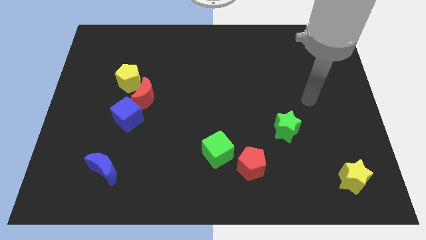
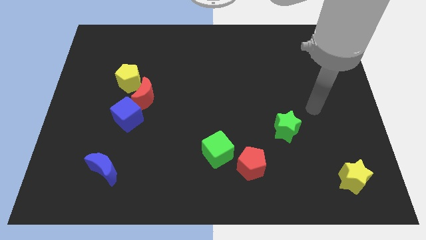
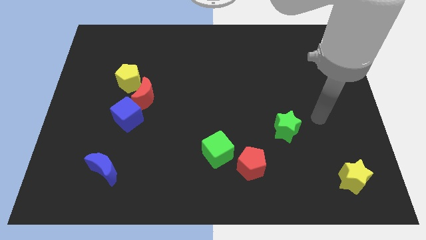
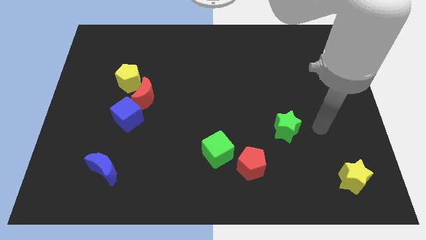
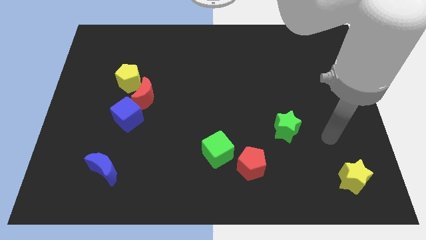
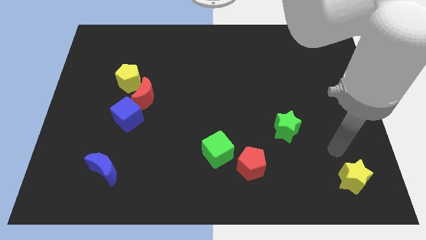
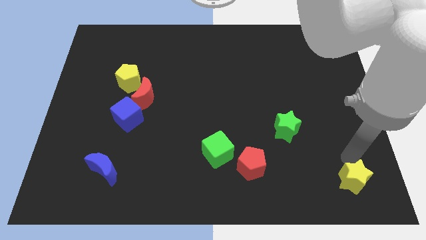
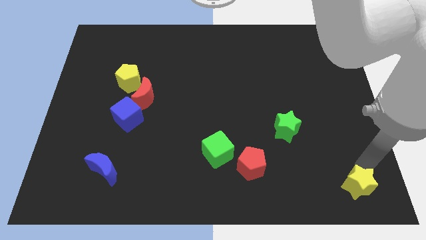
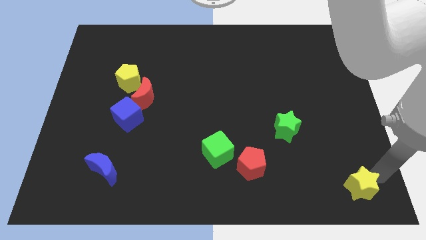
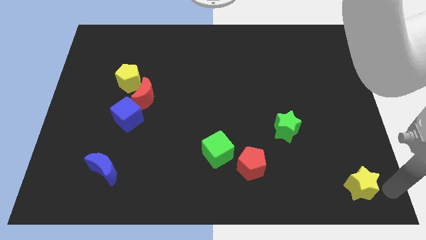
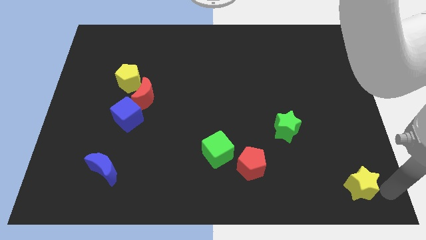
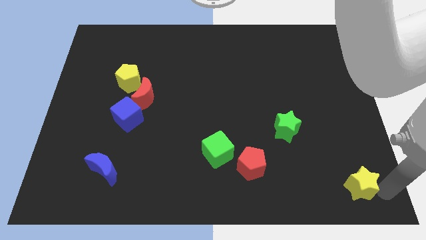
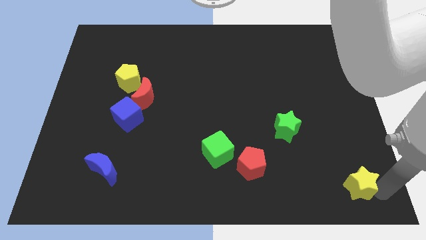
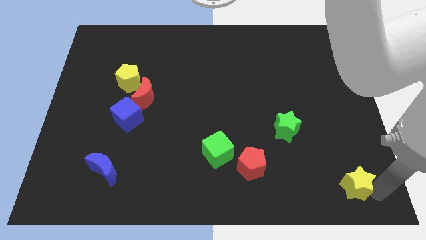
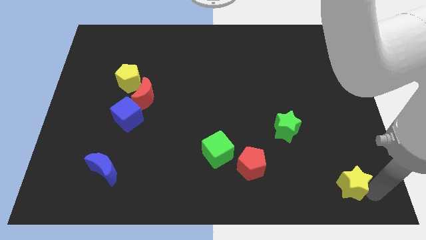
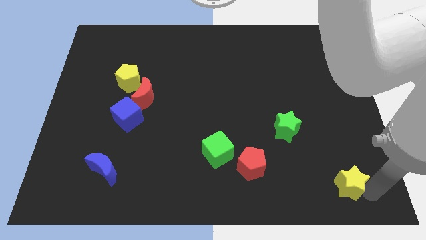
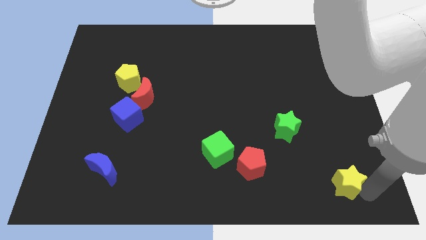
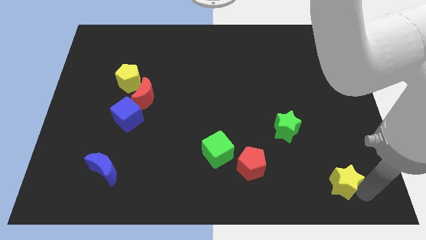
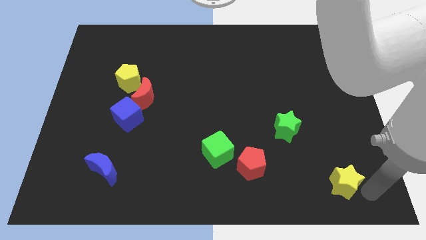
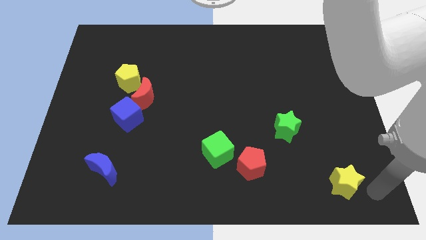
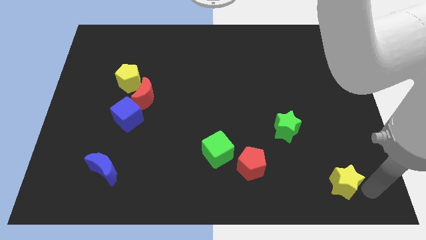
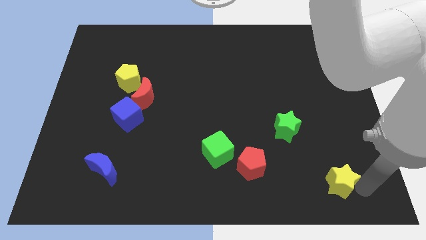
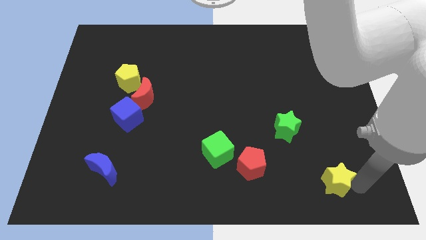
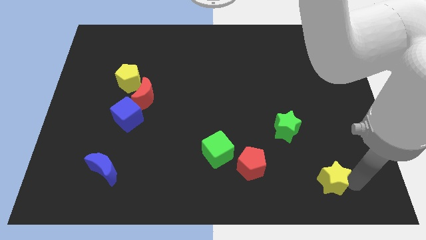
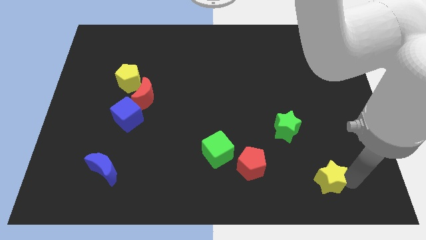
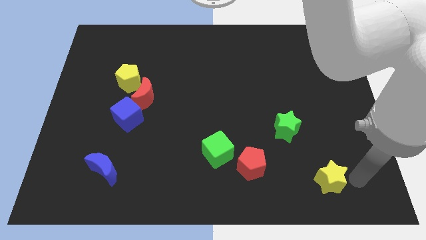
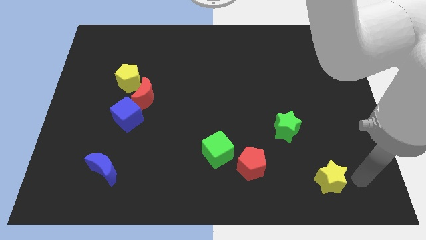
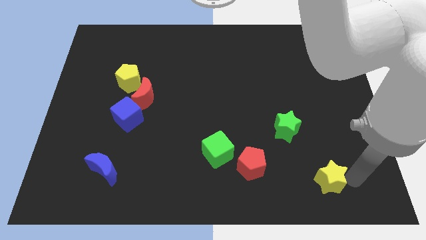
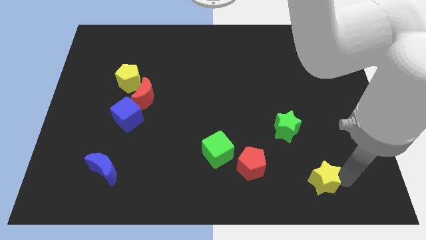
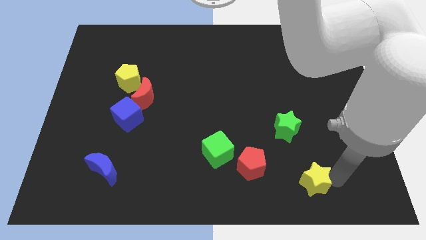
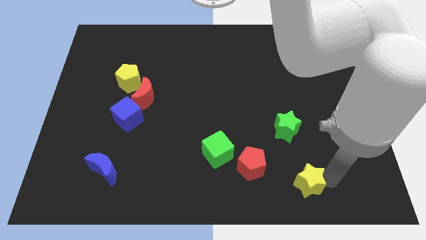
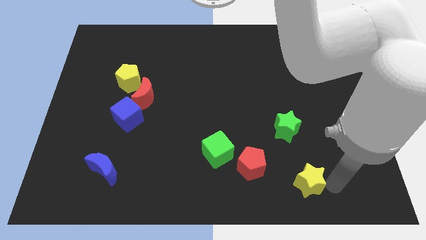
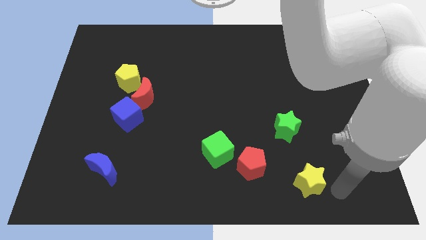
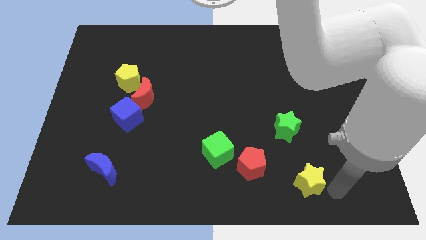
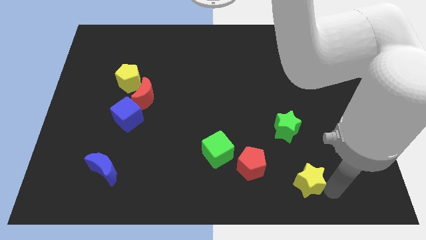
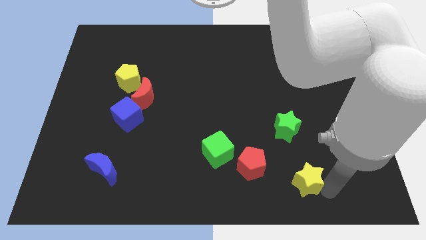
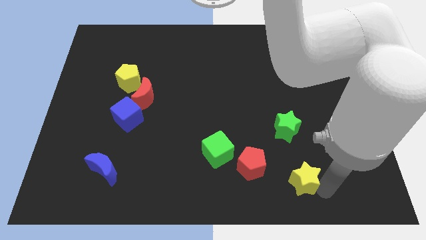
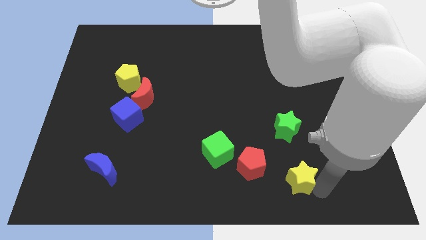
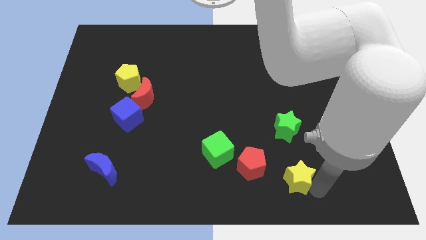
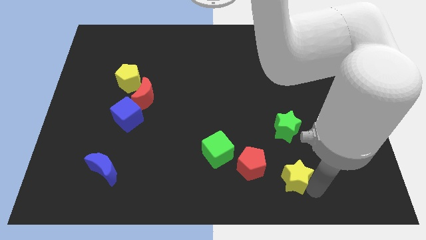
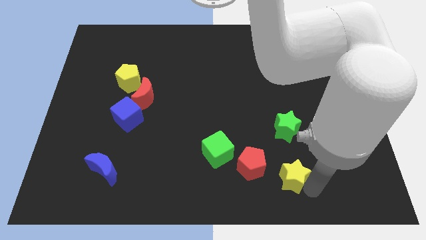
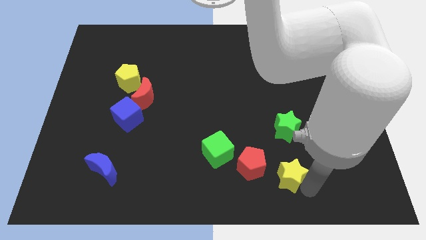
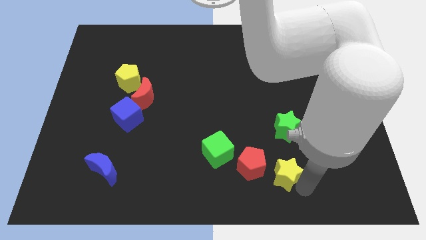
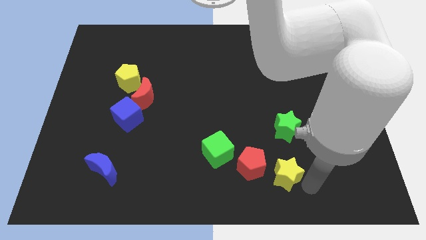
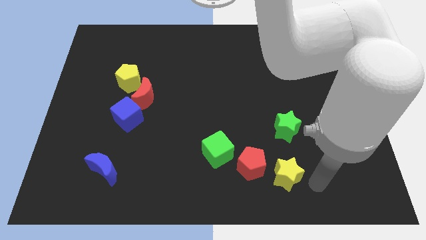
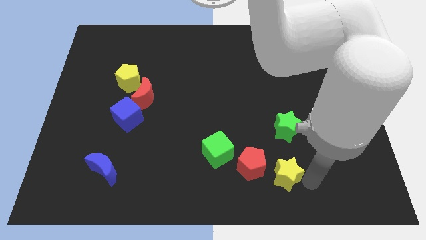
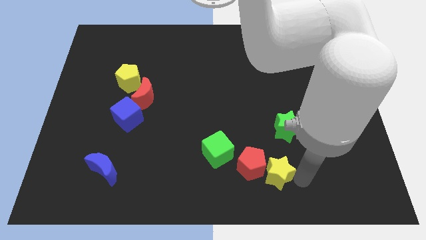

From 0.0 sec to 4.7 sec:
put the yellow star close to the red pentagon

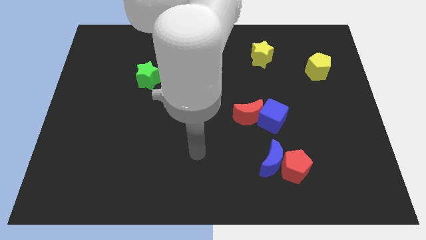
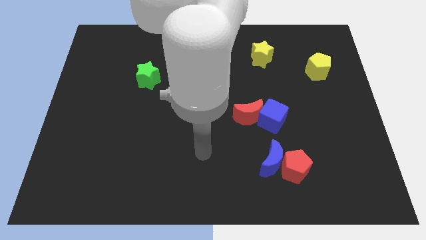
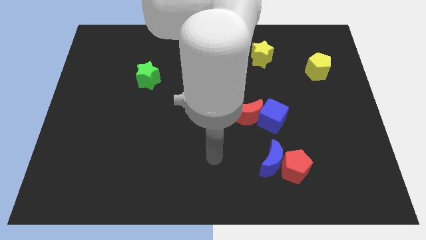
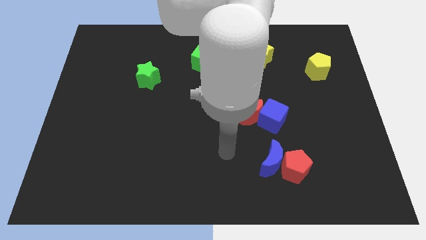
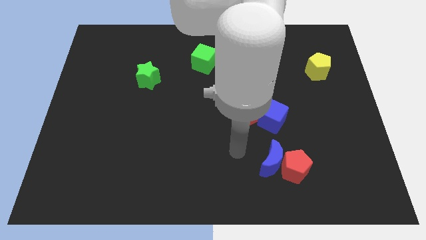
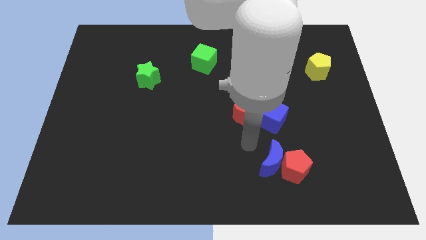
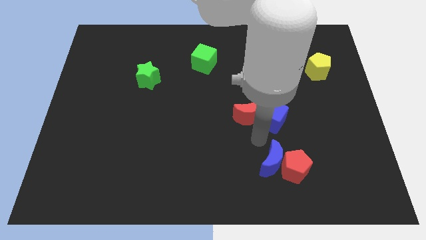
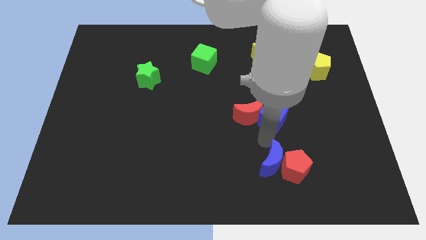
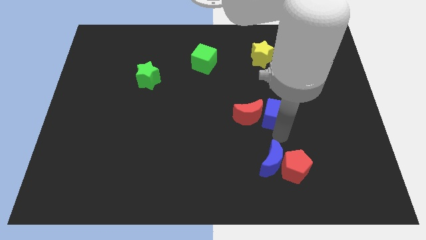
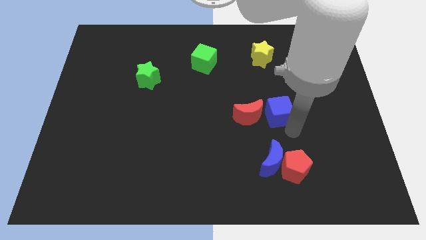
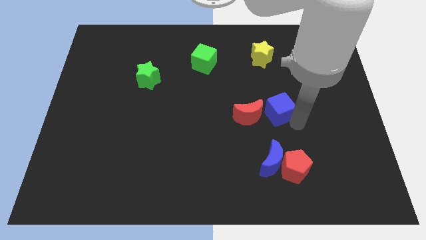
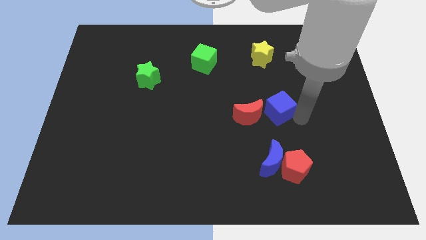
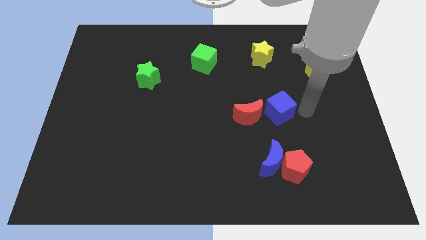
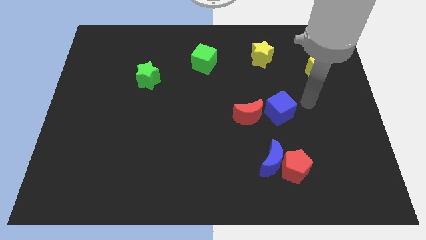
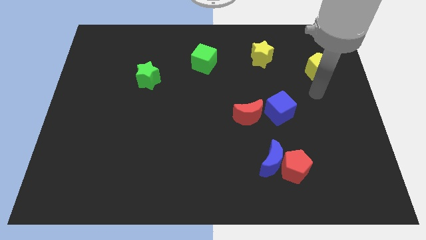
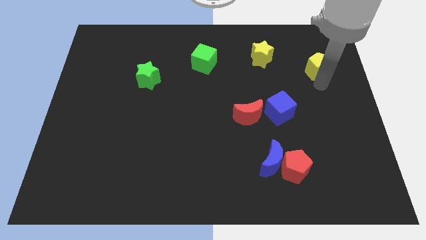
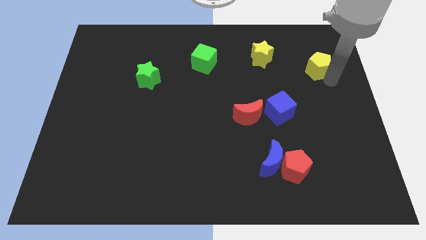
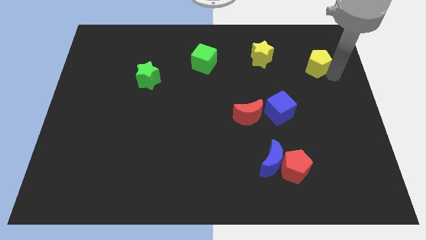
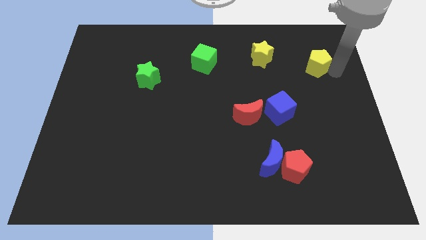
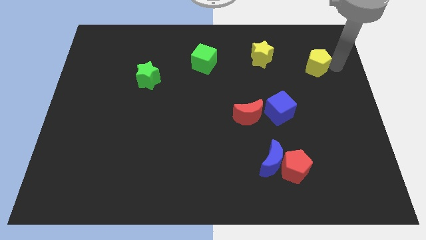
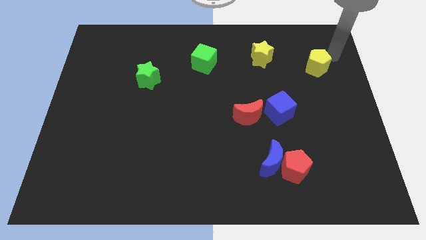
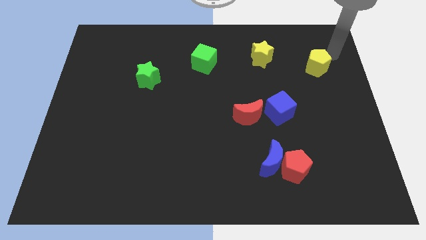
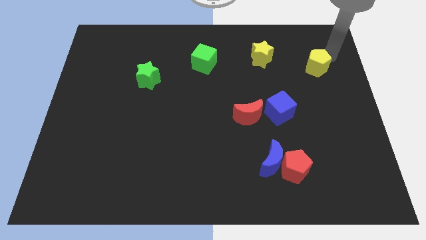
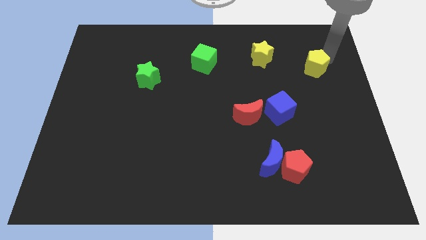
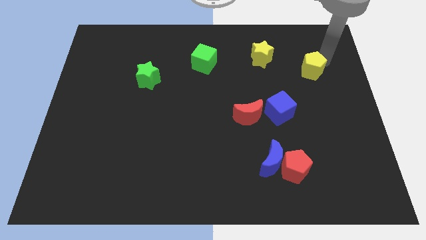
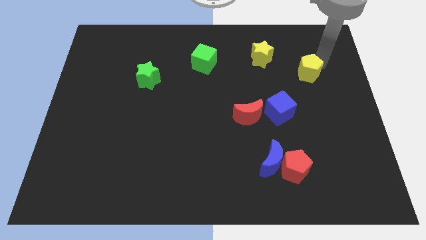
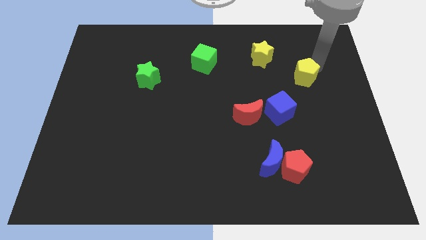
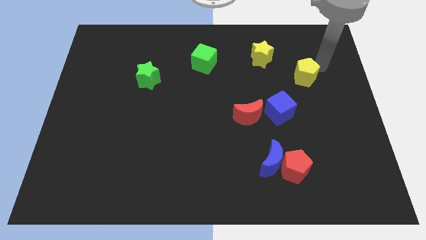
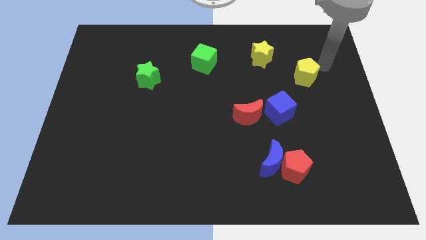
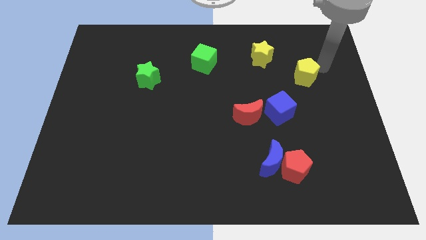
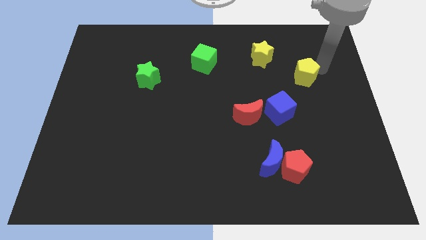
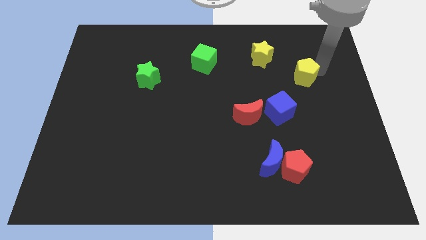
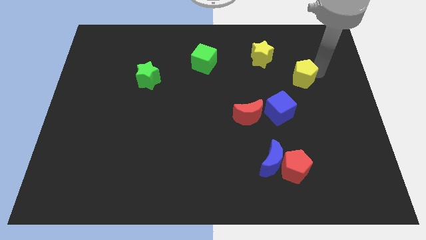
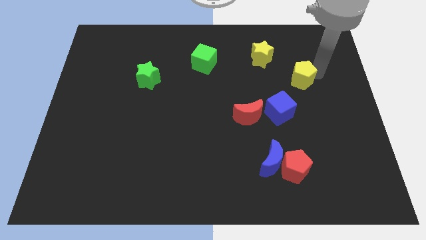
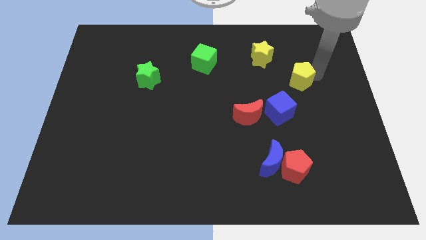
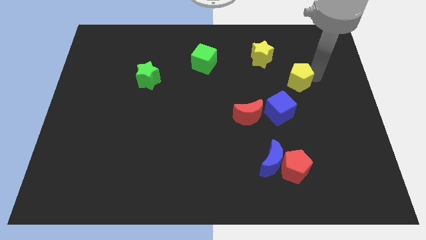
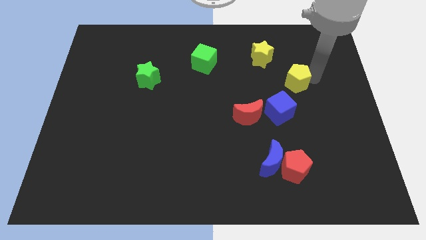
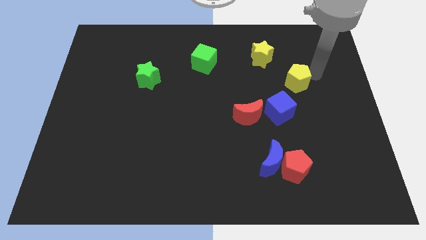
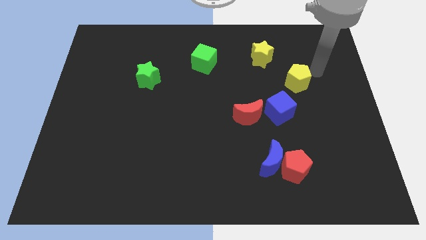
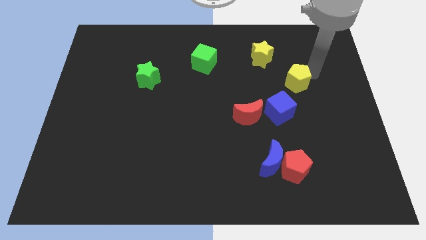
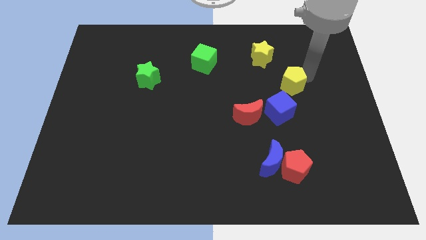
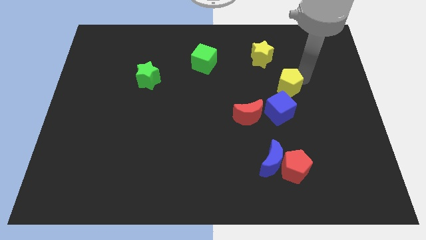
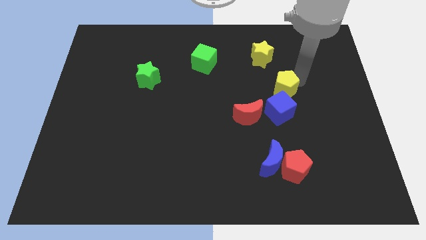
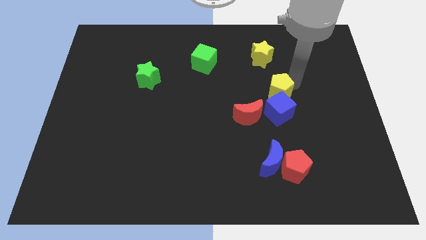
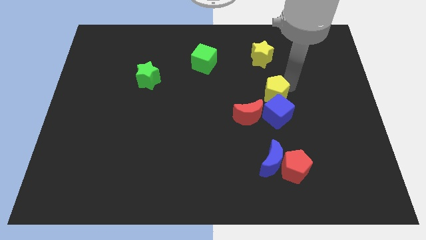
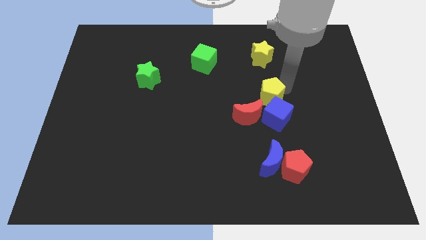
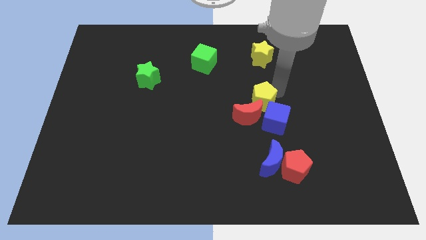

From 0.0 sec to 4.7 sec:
move the yellow pentagon next to the red moon
